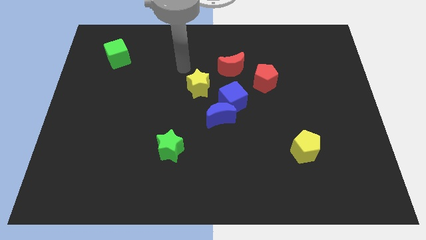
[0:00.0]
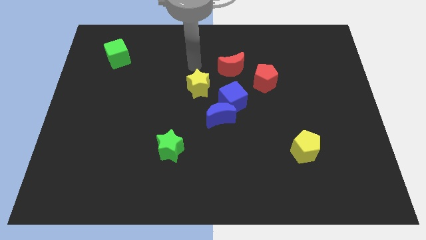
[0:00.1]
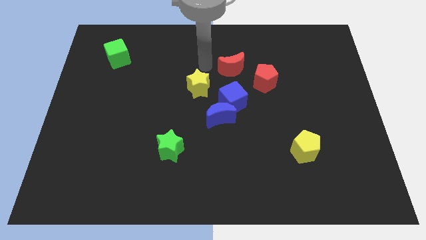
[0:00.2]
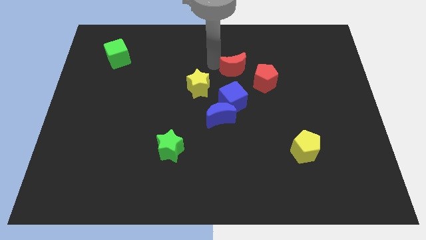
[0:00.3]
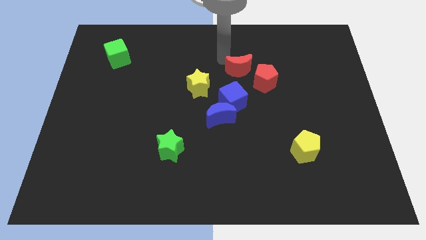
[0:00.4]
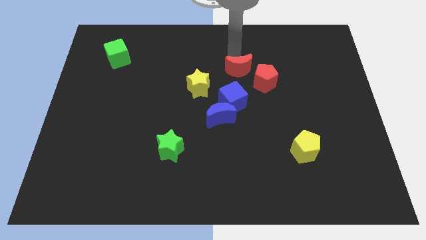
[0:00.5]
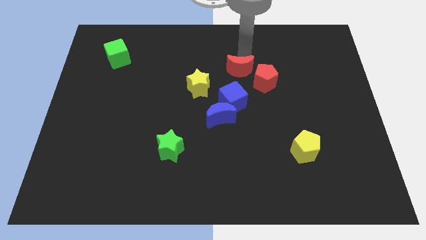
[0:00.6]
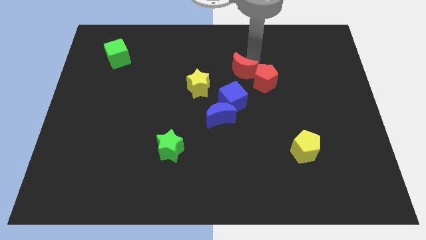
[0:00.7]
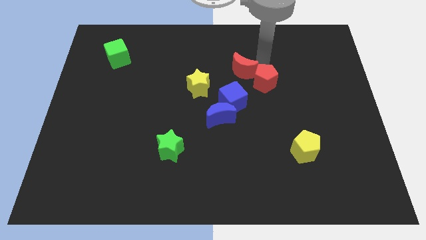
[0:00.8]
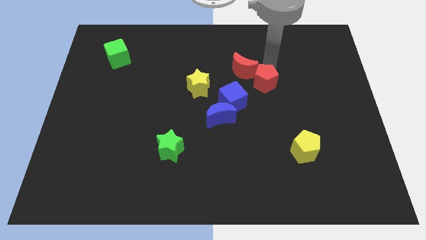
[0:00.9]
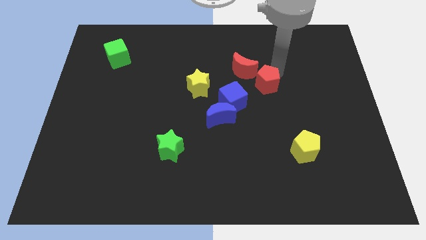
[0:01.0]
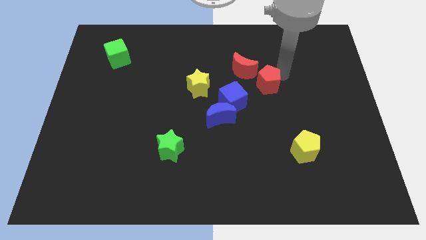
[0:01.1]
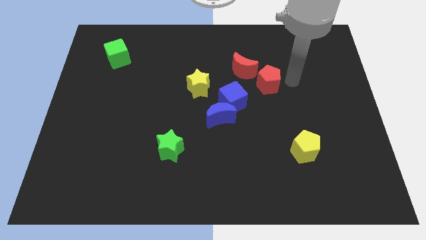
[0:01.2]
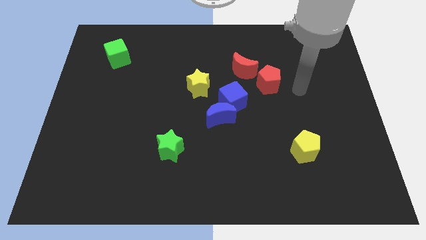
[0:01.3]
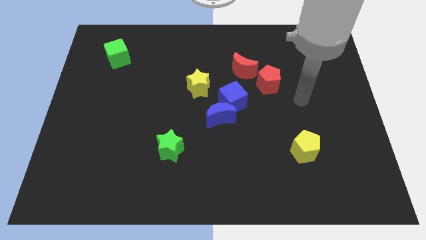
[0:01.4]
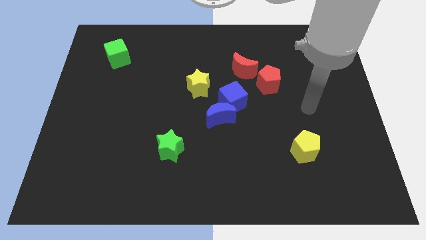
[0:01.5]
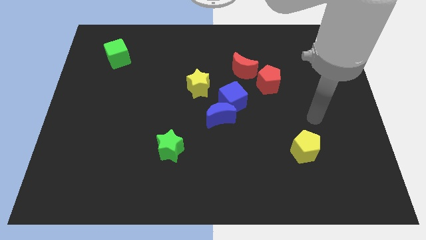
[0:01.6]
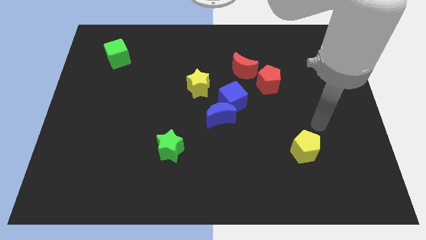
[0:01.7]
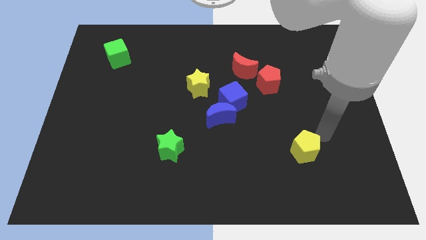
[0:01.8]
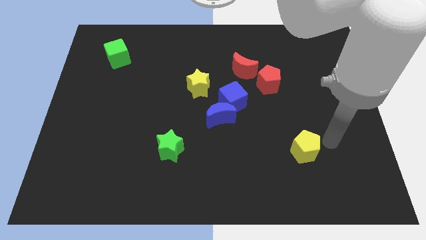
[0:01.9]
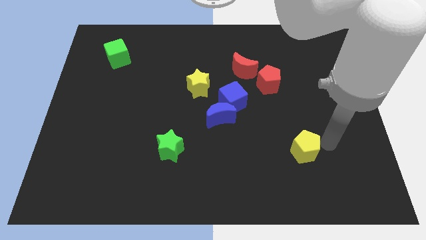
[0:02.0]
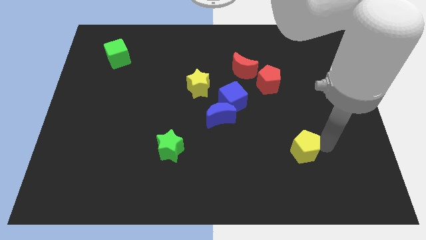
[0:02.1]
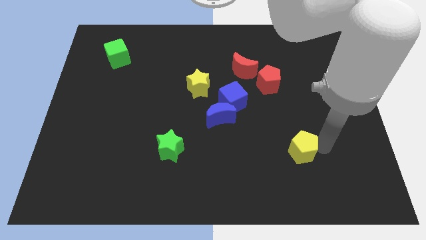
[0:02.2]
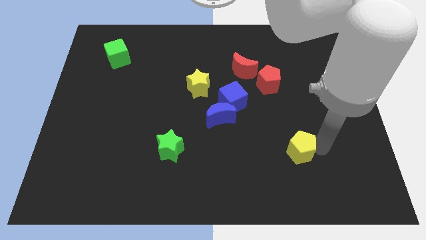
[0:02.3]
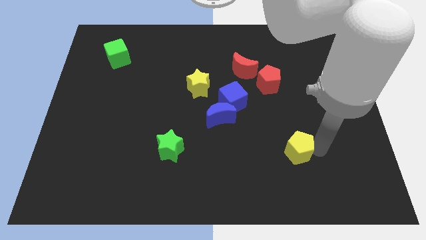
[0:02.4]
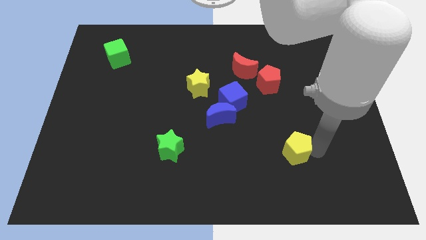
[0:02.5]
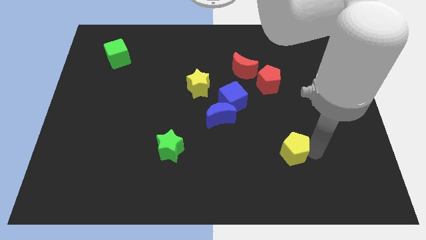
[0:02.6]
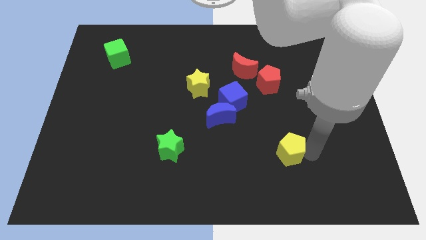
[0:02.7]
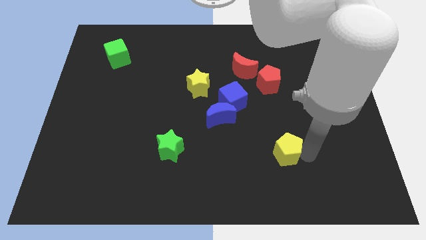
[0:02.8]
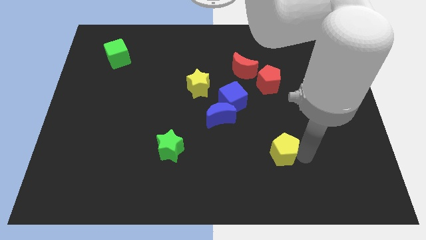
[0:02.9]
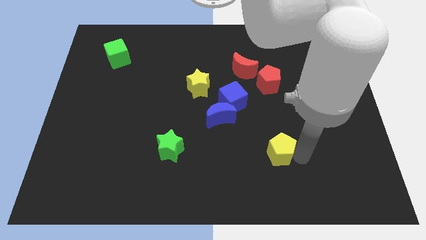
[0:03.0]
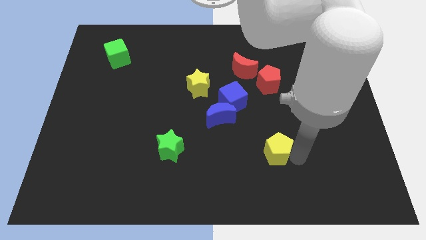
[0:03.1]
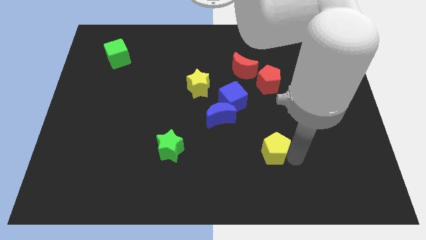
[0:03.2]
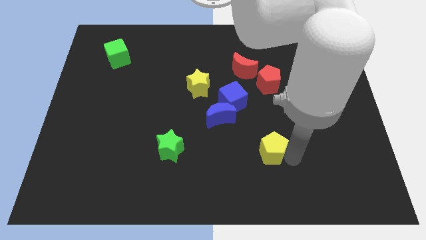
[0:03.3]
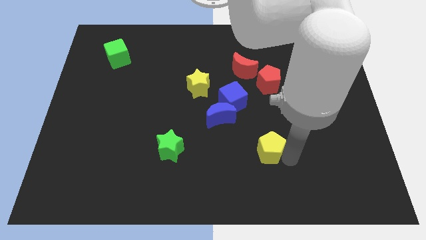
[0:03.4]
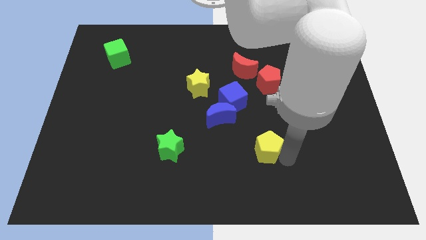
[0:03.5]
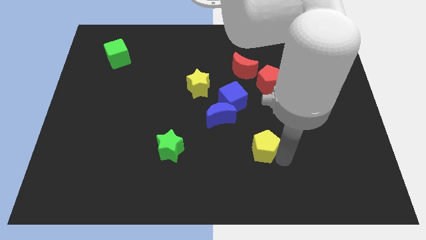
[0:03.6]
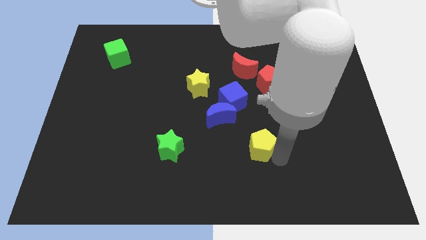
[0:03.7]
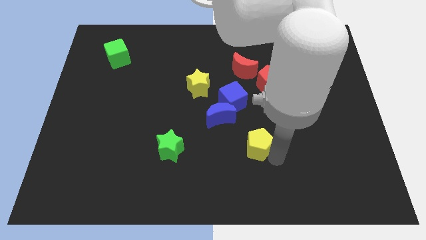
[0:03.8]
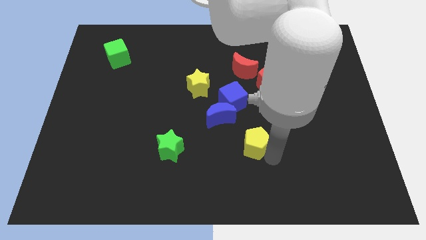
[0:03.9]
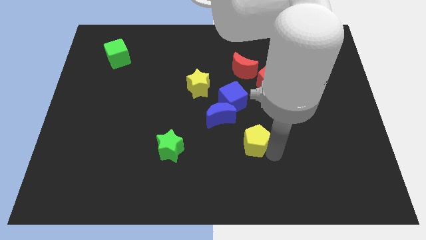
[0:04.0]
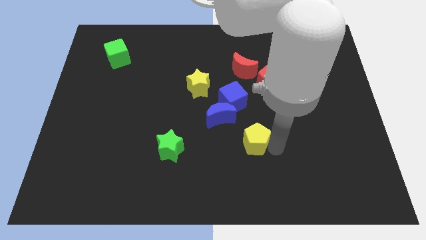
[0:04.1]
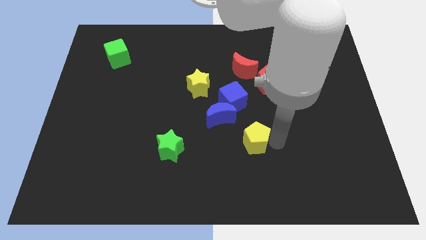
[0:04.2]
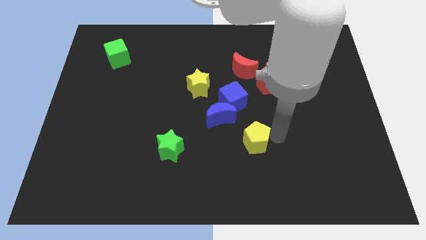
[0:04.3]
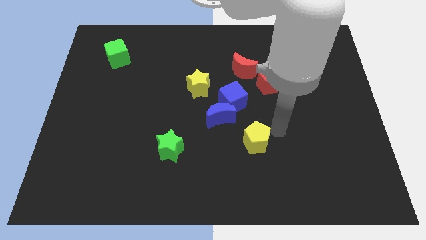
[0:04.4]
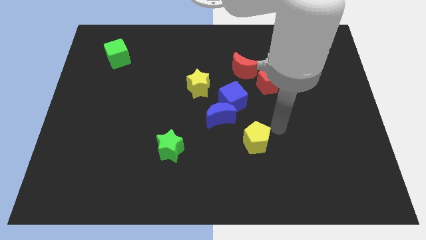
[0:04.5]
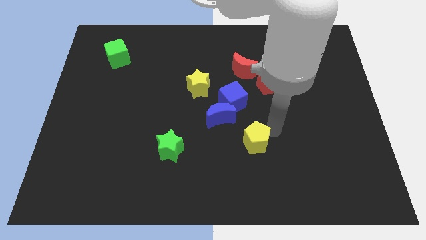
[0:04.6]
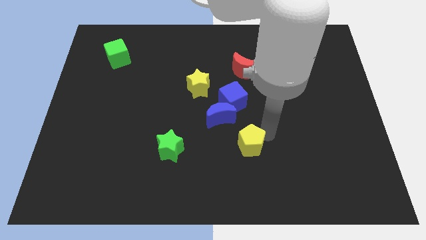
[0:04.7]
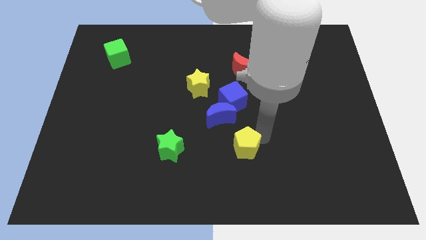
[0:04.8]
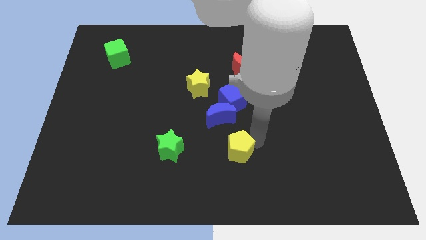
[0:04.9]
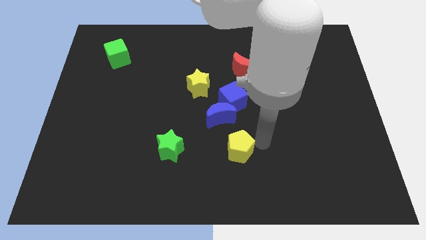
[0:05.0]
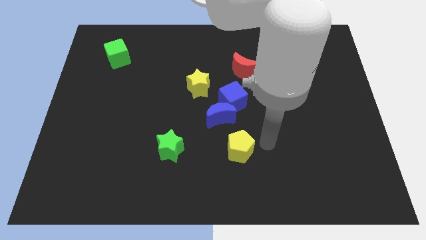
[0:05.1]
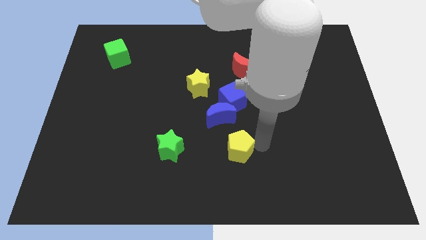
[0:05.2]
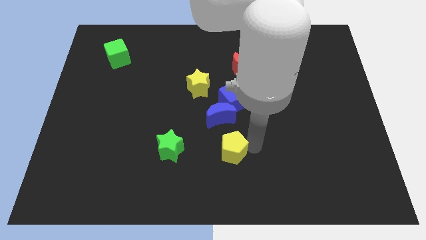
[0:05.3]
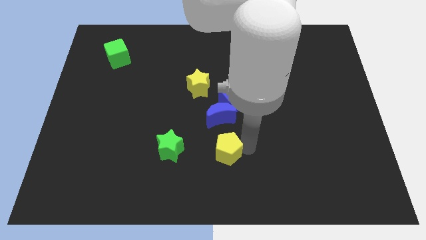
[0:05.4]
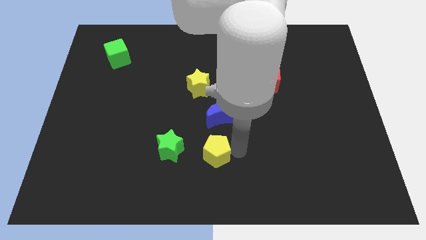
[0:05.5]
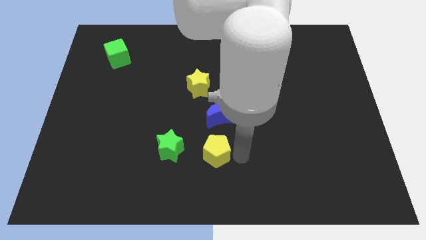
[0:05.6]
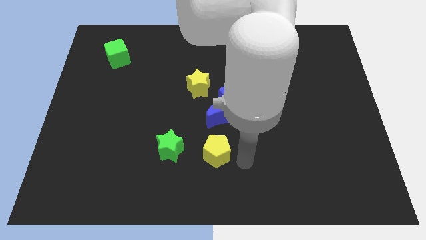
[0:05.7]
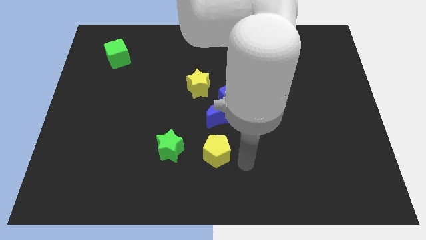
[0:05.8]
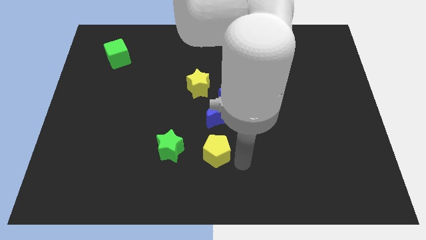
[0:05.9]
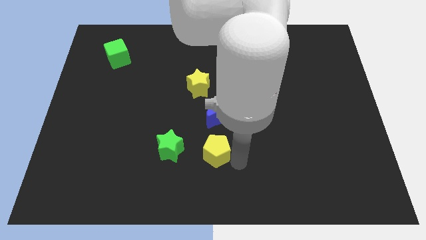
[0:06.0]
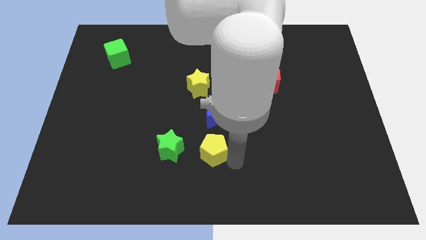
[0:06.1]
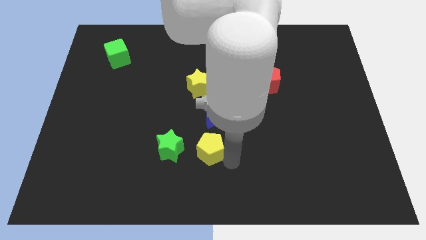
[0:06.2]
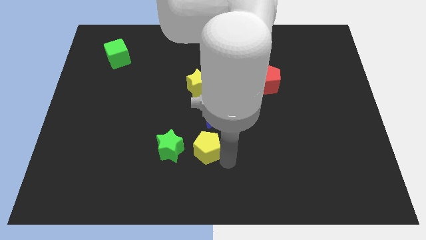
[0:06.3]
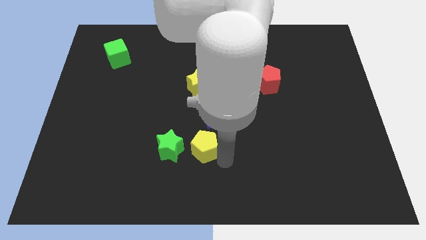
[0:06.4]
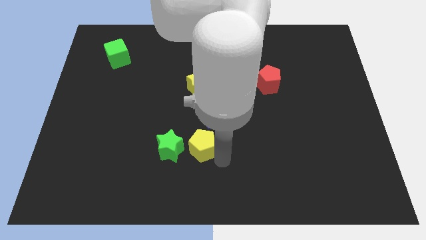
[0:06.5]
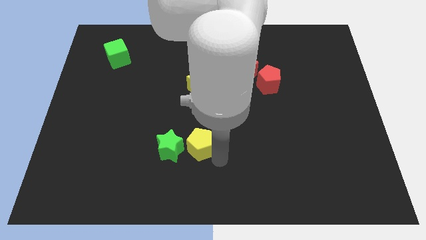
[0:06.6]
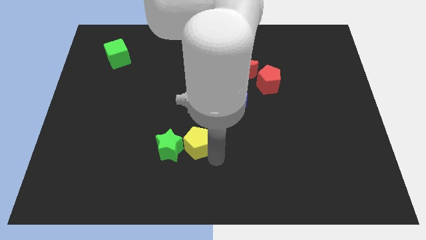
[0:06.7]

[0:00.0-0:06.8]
push the yellow pentagon close to the green star
